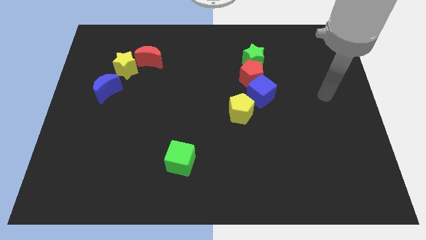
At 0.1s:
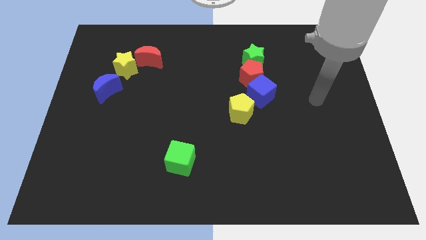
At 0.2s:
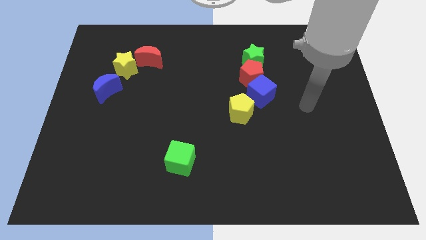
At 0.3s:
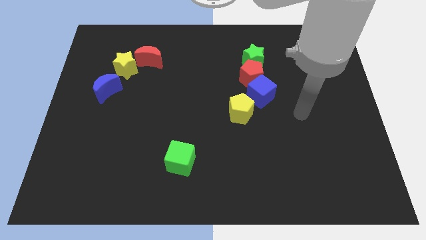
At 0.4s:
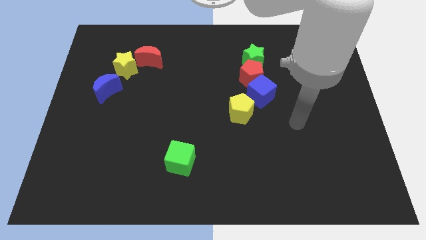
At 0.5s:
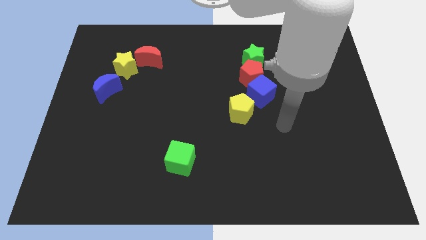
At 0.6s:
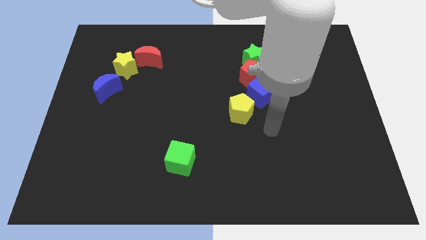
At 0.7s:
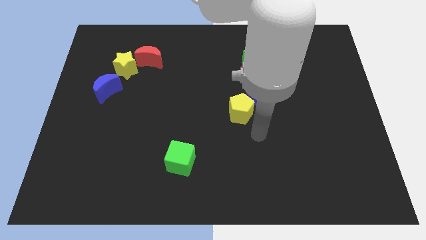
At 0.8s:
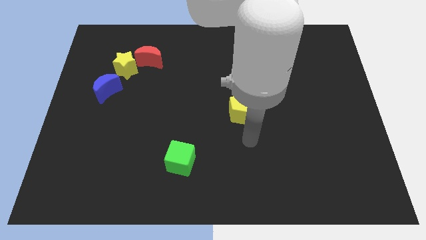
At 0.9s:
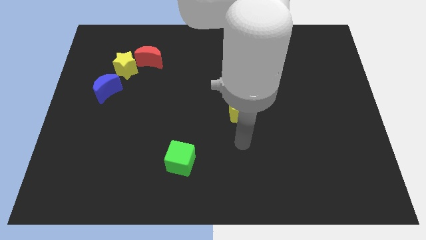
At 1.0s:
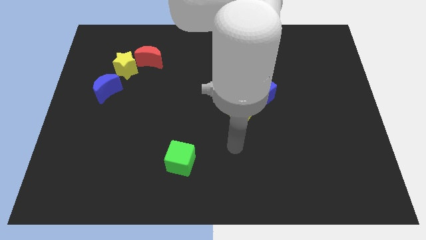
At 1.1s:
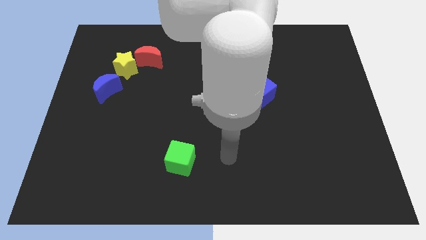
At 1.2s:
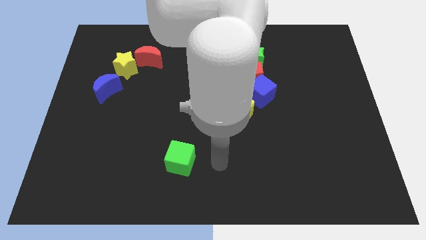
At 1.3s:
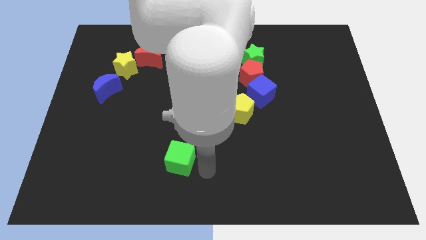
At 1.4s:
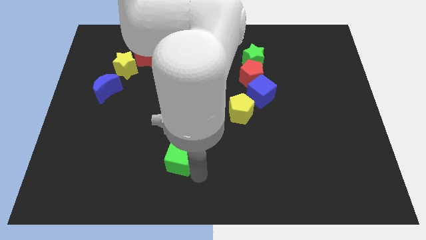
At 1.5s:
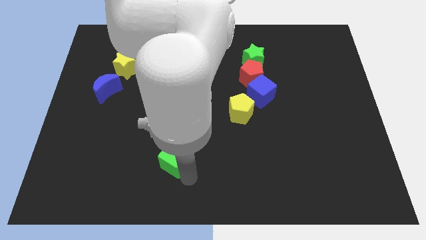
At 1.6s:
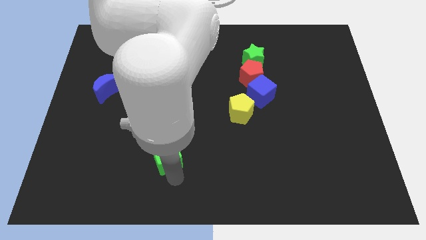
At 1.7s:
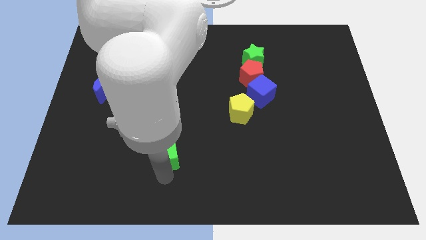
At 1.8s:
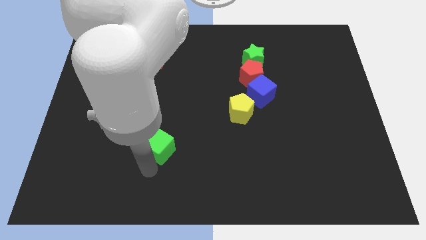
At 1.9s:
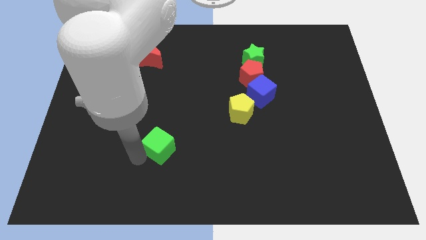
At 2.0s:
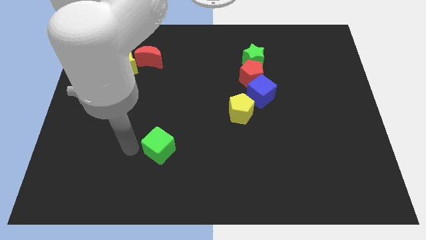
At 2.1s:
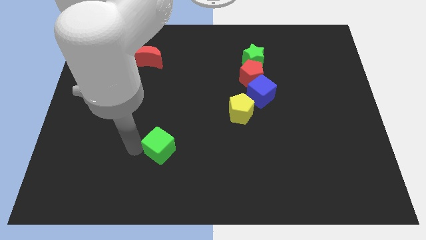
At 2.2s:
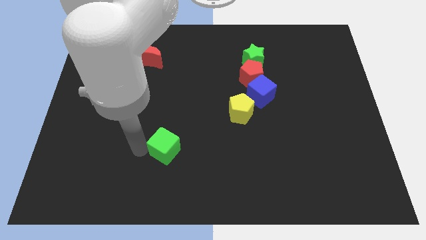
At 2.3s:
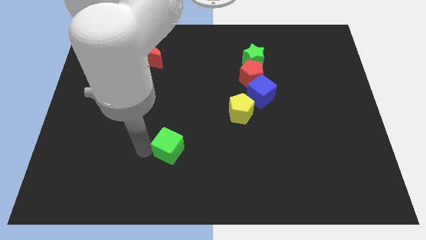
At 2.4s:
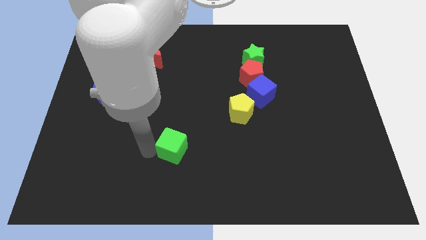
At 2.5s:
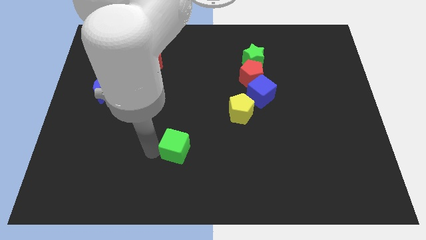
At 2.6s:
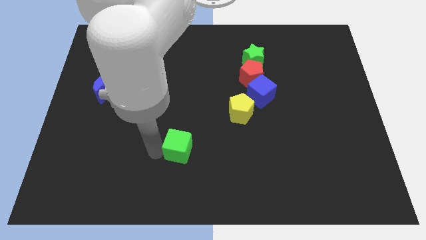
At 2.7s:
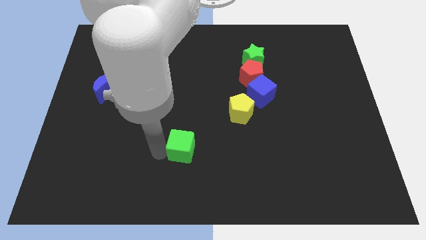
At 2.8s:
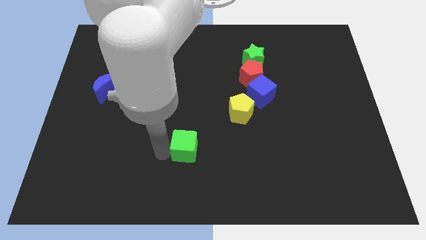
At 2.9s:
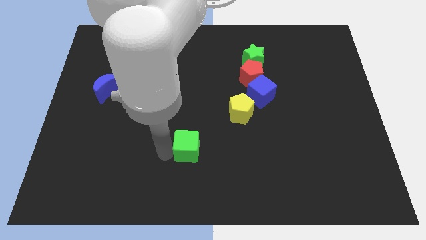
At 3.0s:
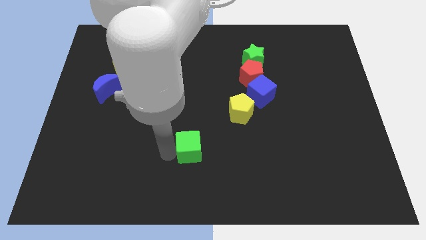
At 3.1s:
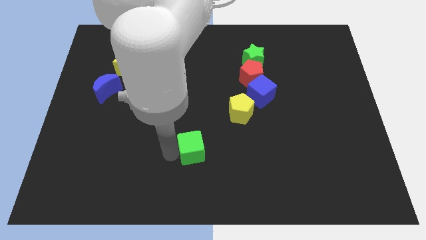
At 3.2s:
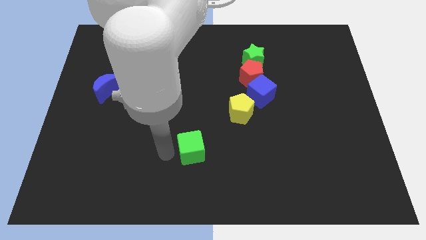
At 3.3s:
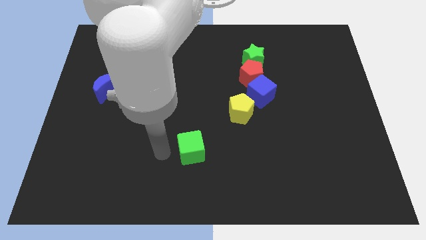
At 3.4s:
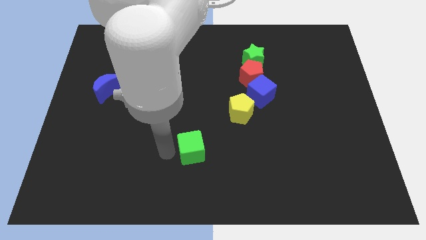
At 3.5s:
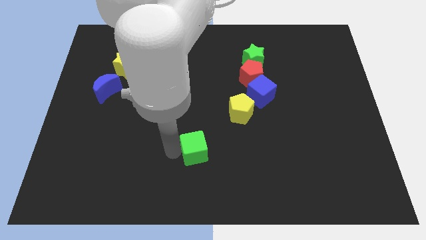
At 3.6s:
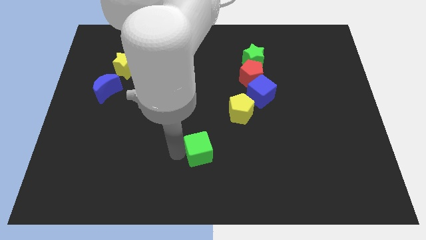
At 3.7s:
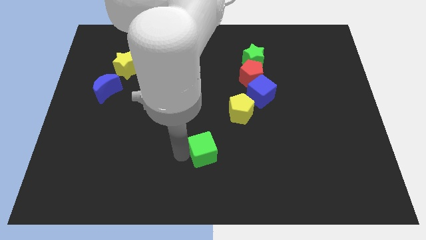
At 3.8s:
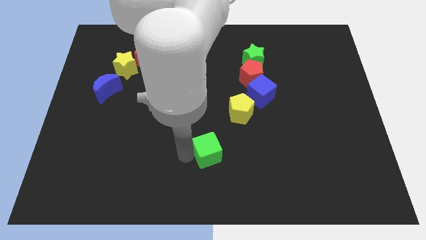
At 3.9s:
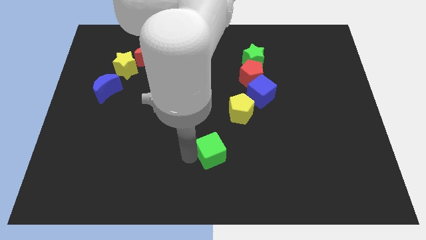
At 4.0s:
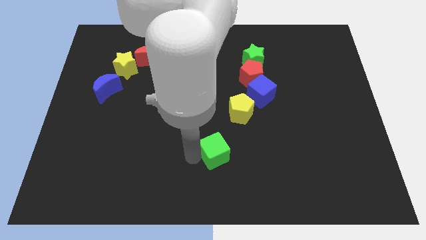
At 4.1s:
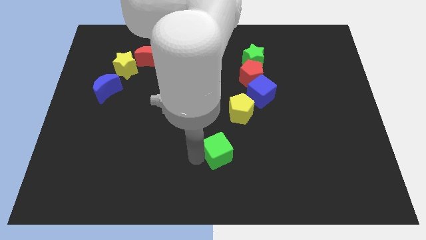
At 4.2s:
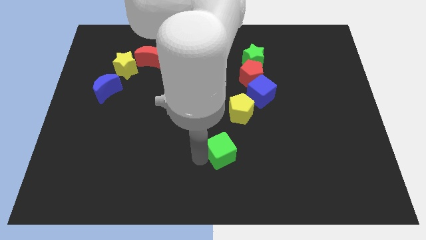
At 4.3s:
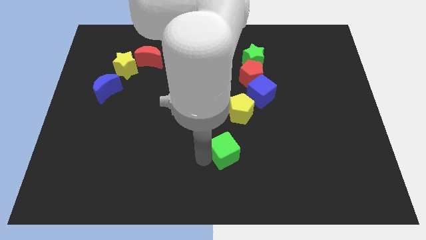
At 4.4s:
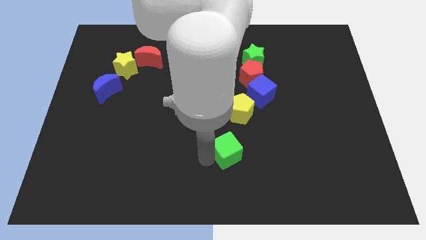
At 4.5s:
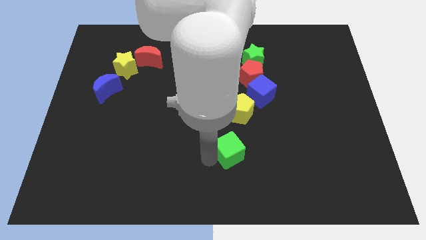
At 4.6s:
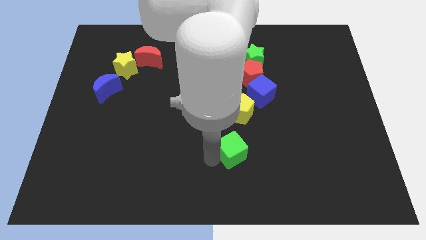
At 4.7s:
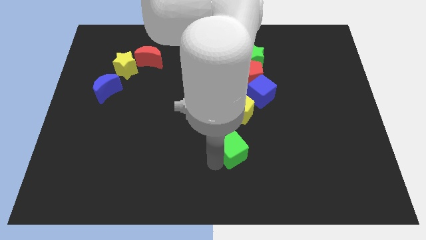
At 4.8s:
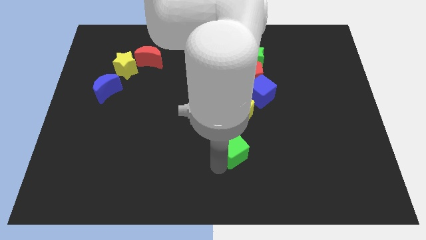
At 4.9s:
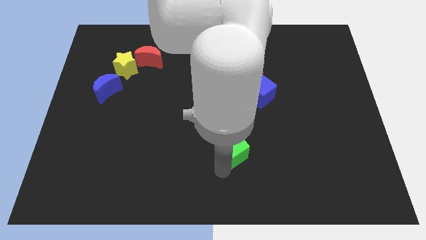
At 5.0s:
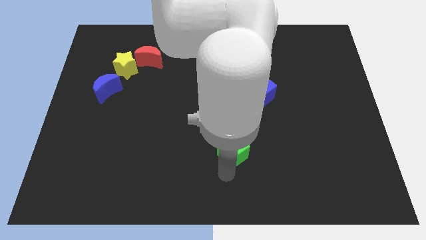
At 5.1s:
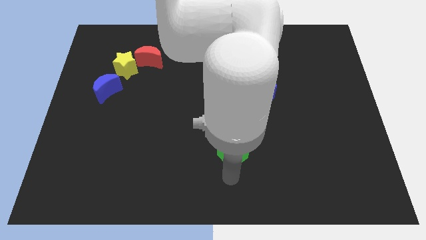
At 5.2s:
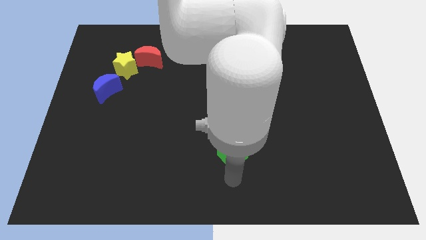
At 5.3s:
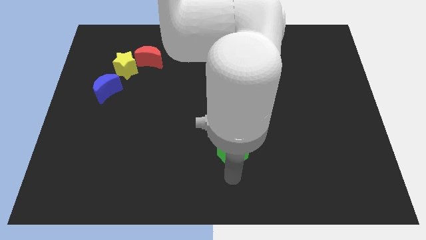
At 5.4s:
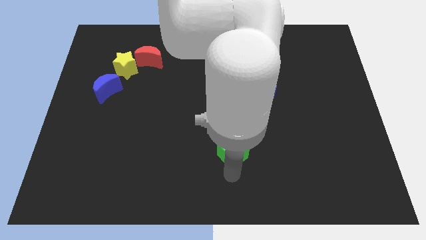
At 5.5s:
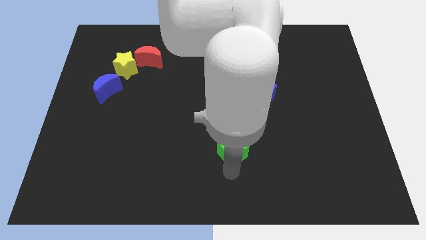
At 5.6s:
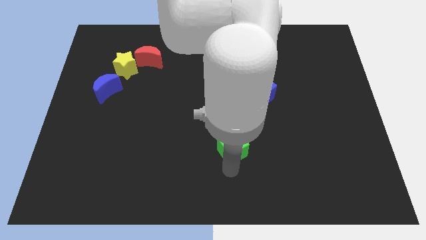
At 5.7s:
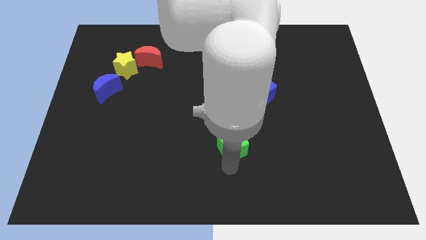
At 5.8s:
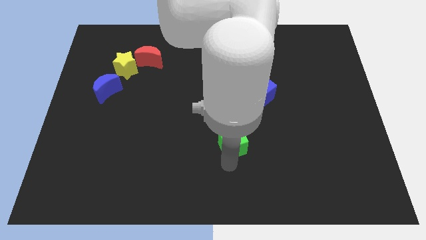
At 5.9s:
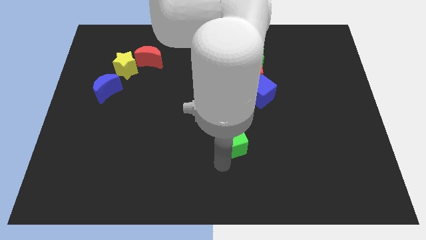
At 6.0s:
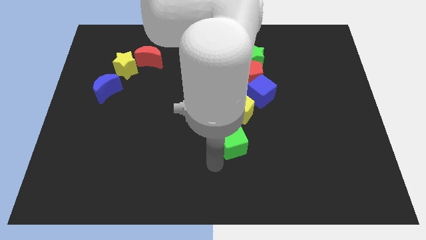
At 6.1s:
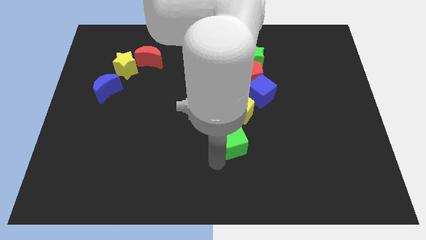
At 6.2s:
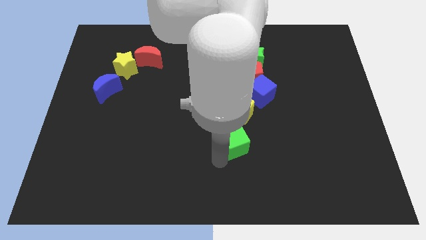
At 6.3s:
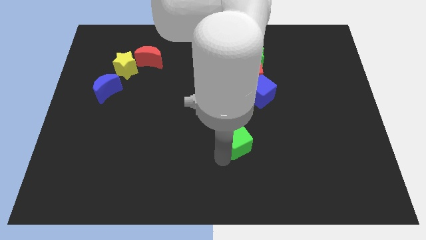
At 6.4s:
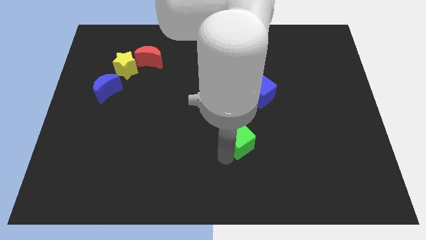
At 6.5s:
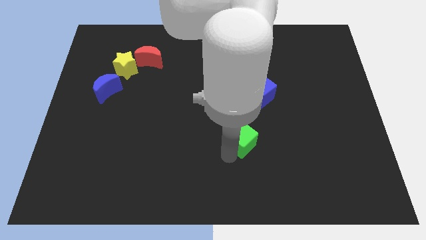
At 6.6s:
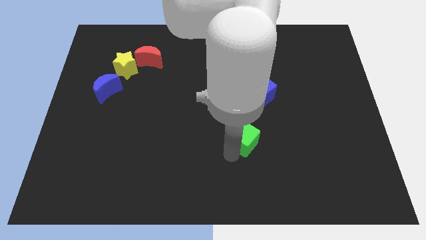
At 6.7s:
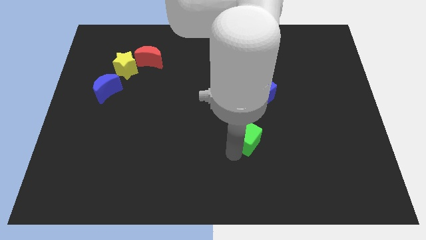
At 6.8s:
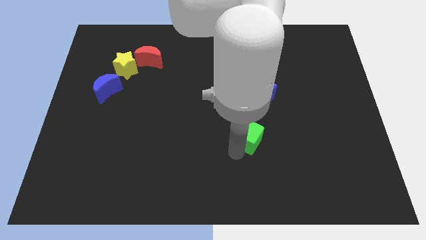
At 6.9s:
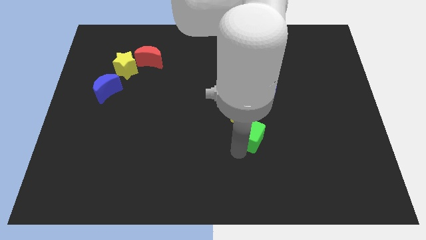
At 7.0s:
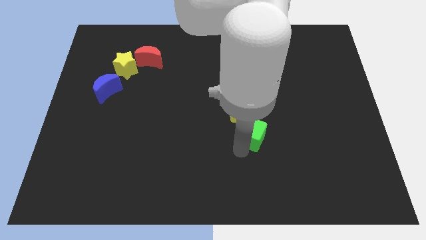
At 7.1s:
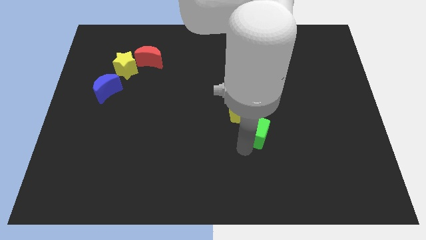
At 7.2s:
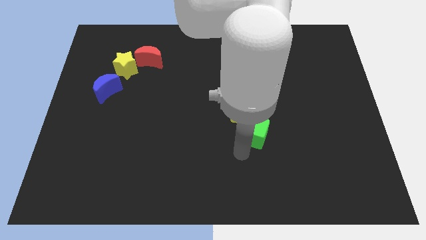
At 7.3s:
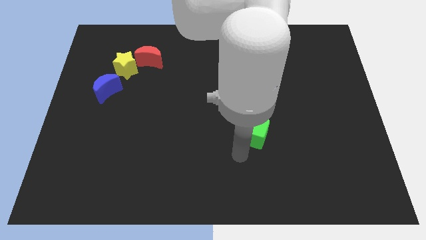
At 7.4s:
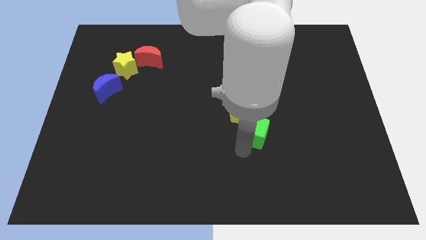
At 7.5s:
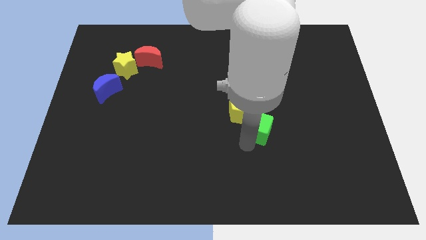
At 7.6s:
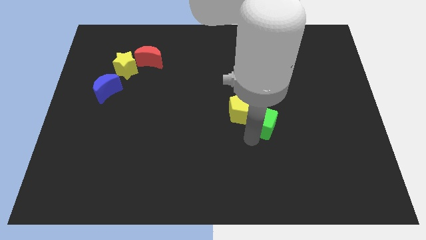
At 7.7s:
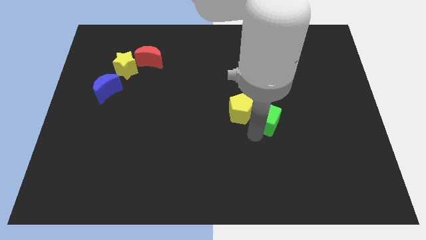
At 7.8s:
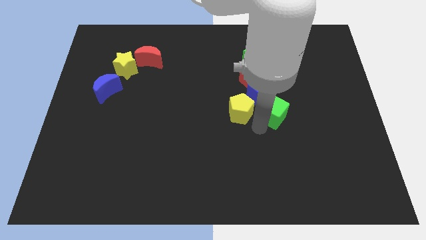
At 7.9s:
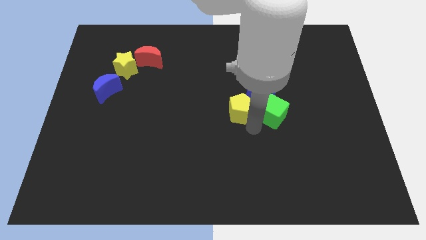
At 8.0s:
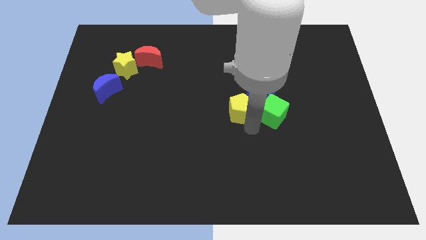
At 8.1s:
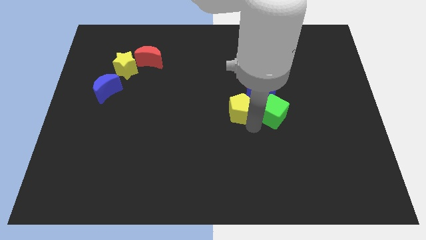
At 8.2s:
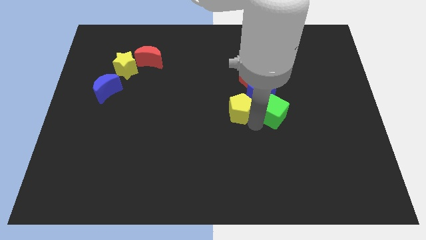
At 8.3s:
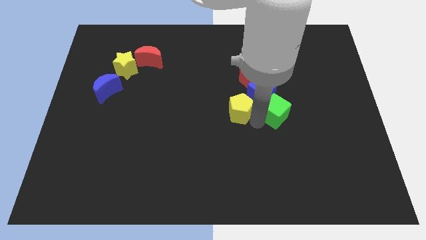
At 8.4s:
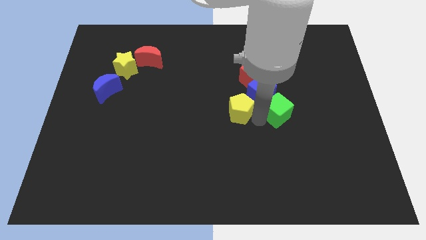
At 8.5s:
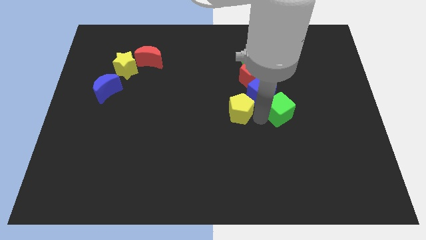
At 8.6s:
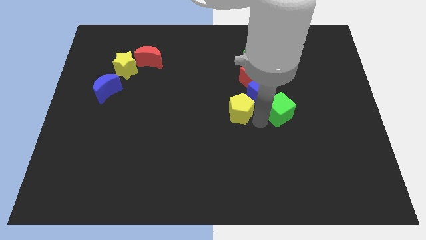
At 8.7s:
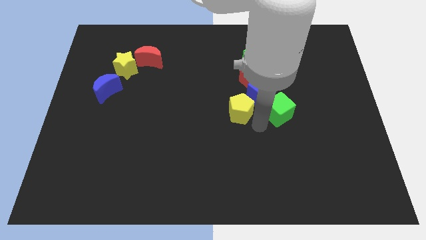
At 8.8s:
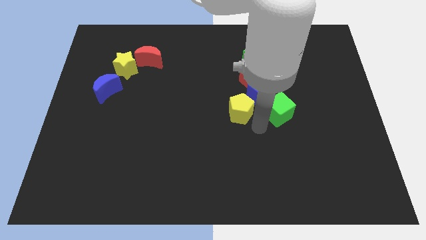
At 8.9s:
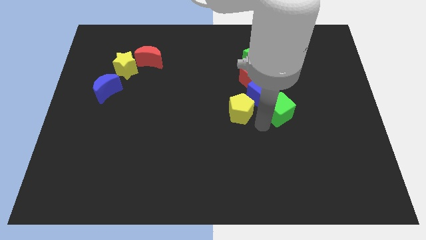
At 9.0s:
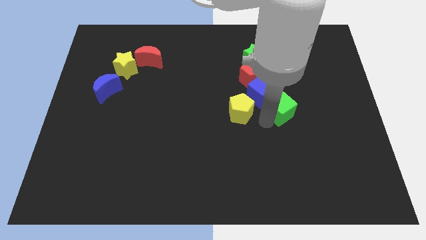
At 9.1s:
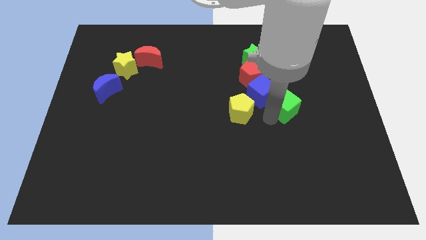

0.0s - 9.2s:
slide the green cube just right of the blue cube
